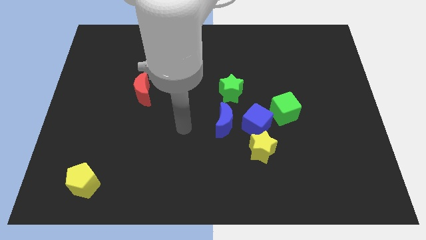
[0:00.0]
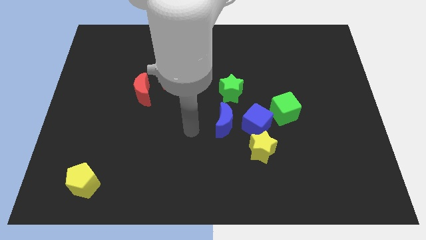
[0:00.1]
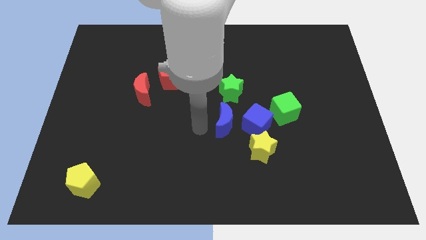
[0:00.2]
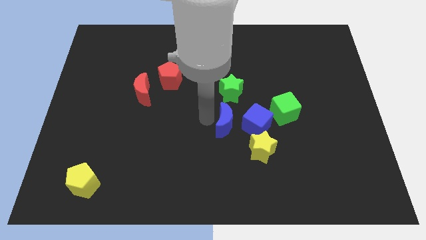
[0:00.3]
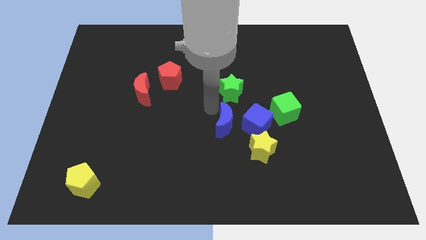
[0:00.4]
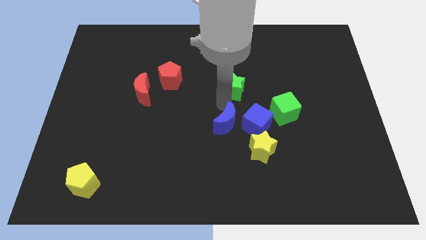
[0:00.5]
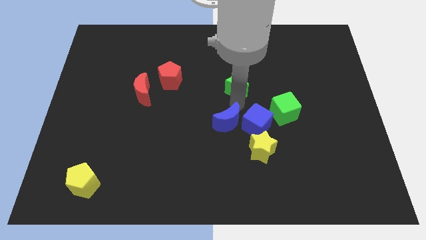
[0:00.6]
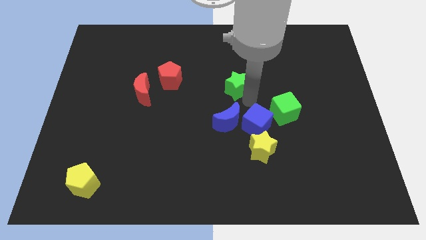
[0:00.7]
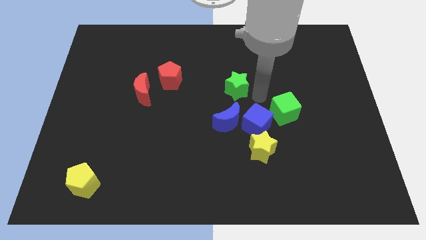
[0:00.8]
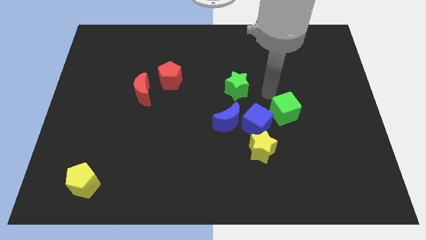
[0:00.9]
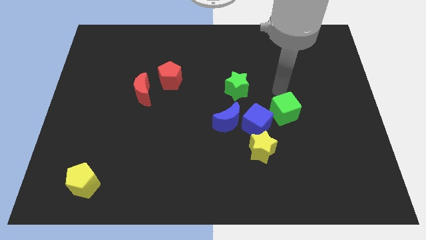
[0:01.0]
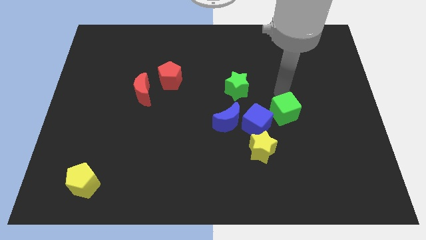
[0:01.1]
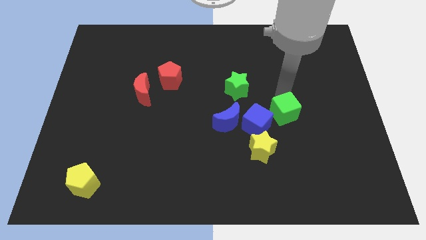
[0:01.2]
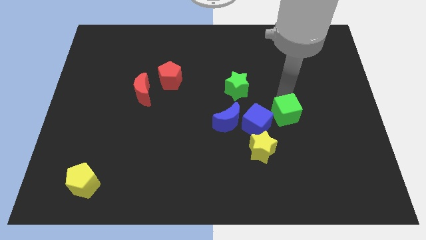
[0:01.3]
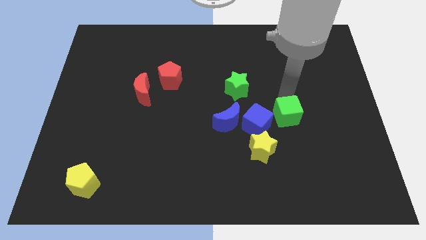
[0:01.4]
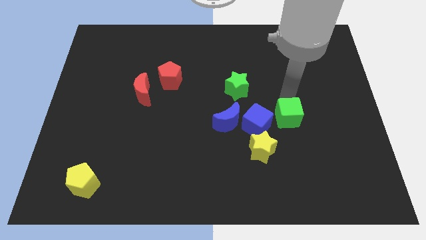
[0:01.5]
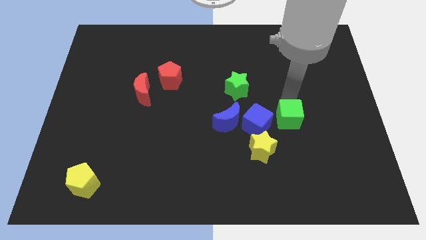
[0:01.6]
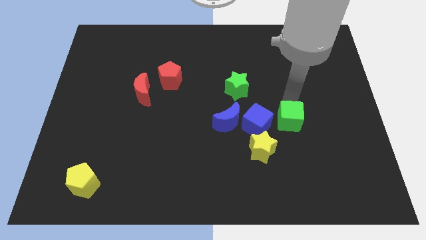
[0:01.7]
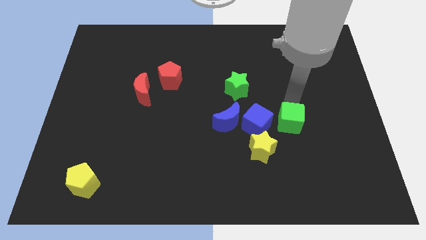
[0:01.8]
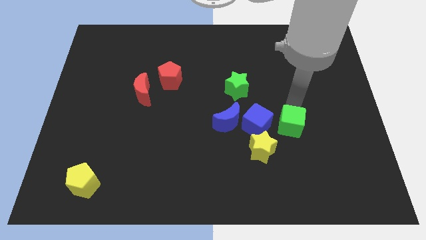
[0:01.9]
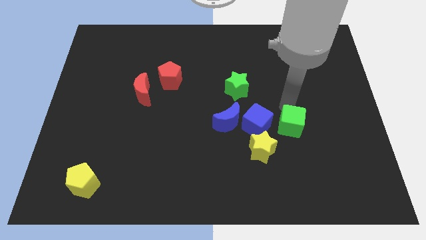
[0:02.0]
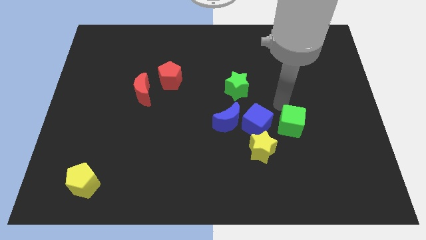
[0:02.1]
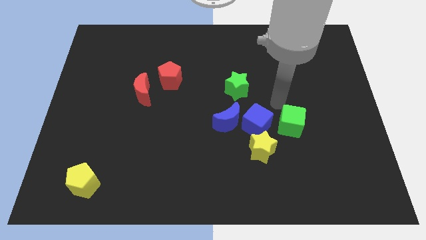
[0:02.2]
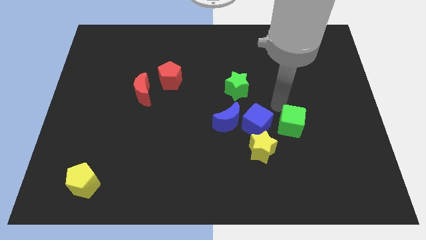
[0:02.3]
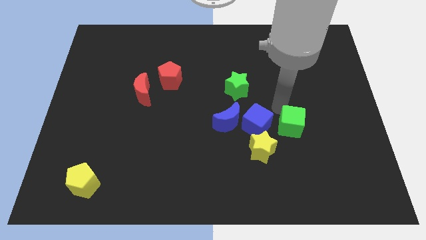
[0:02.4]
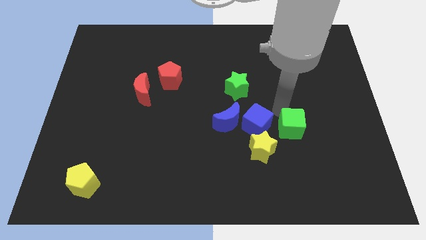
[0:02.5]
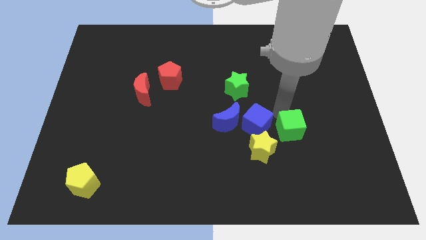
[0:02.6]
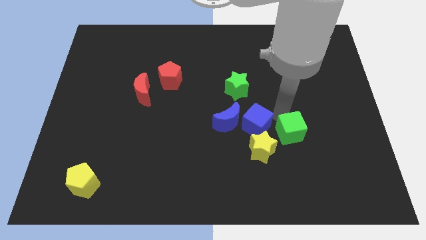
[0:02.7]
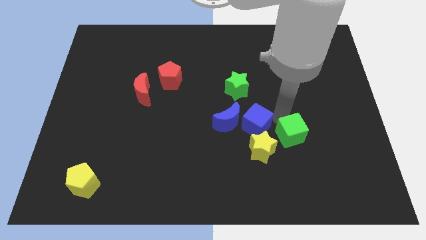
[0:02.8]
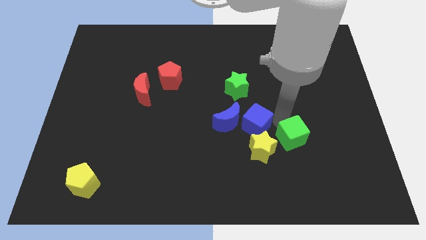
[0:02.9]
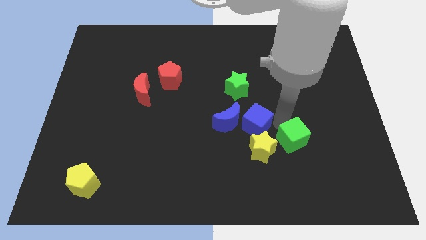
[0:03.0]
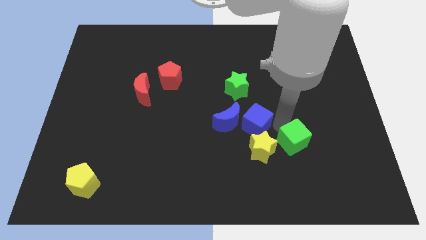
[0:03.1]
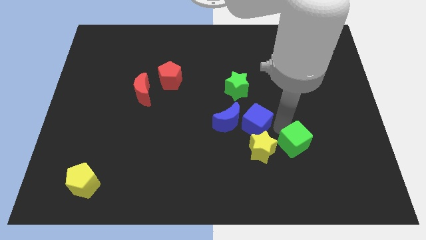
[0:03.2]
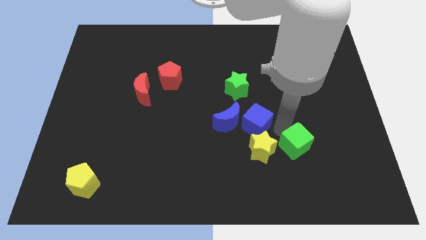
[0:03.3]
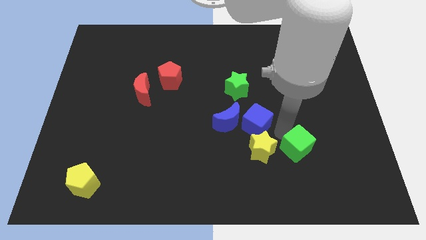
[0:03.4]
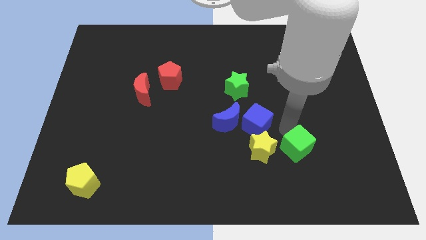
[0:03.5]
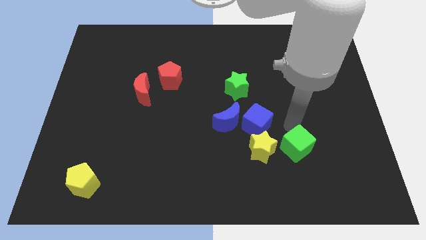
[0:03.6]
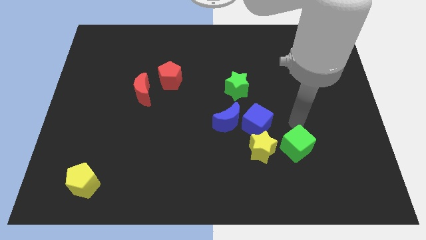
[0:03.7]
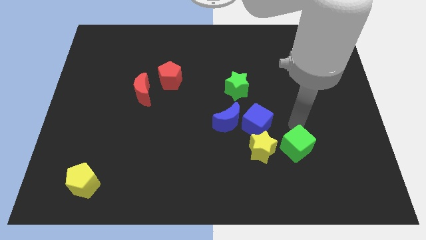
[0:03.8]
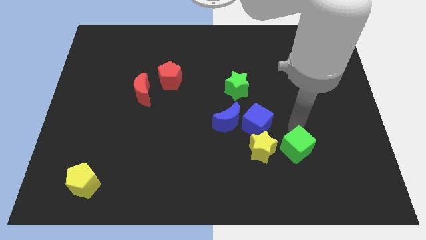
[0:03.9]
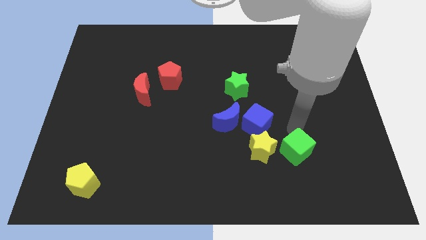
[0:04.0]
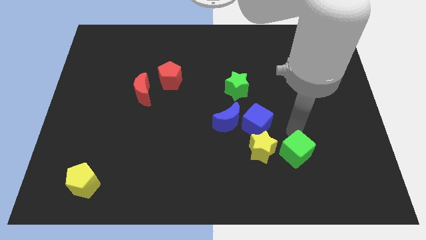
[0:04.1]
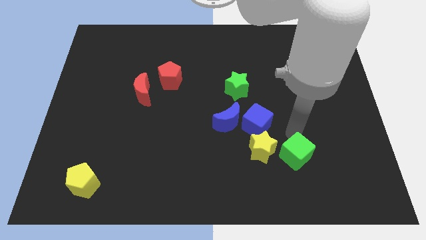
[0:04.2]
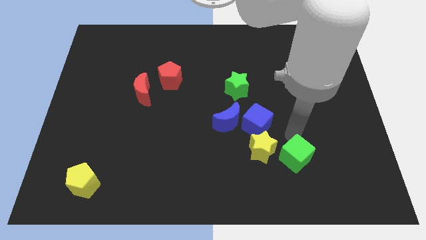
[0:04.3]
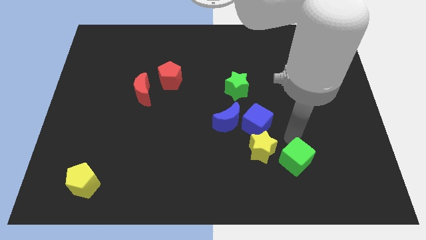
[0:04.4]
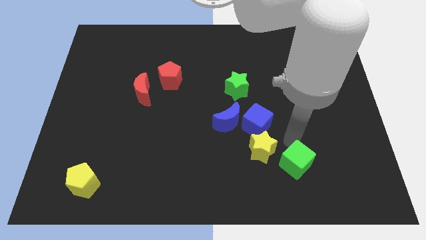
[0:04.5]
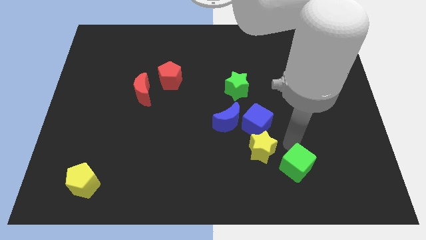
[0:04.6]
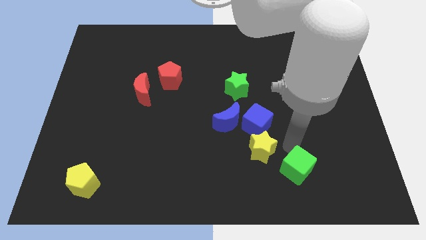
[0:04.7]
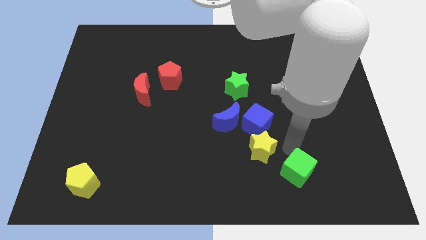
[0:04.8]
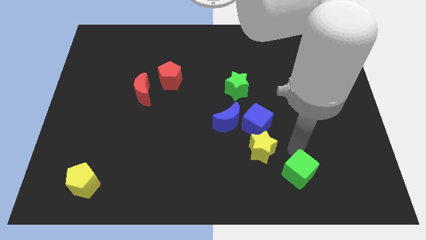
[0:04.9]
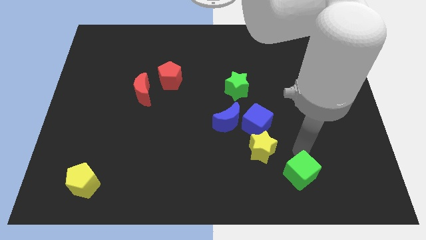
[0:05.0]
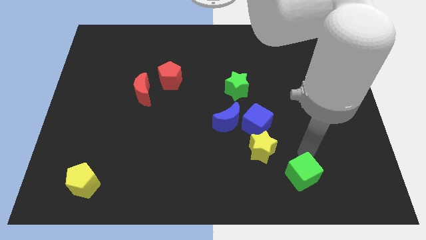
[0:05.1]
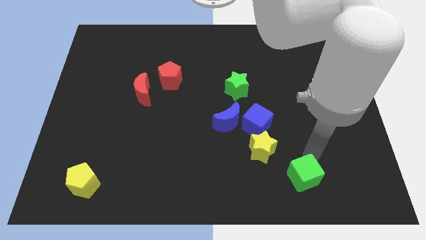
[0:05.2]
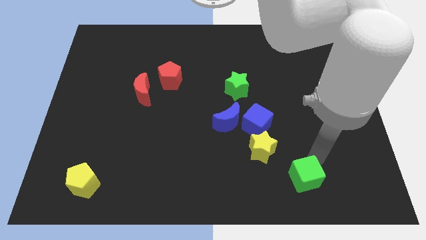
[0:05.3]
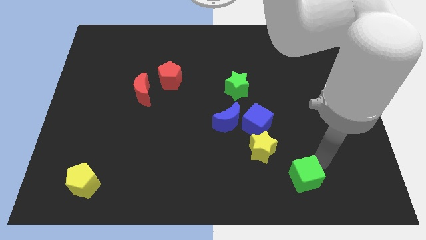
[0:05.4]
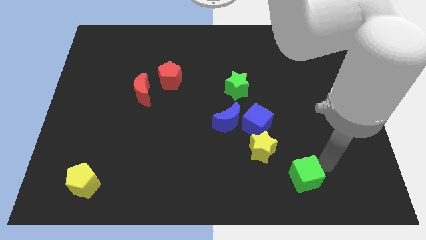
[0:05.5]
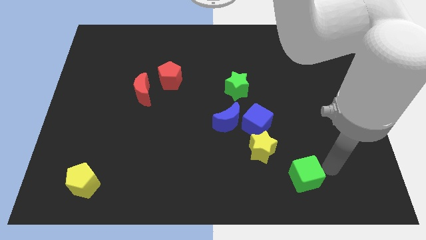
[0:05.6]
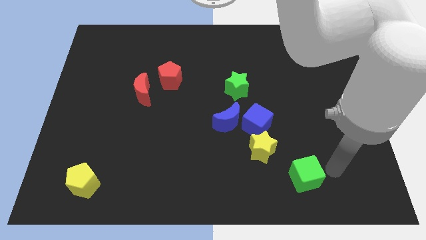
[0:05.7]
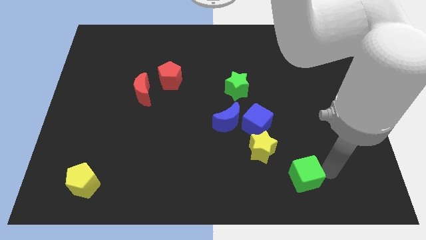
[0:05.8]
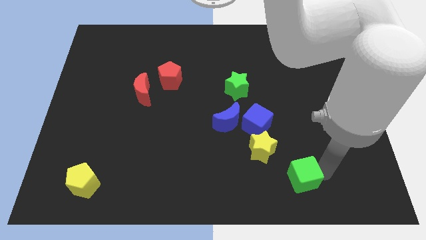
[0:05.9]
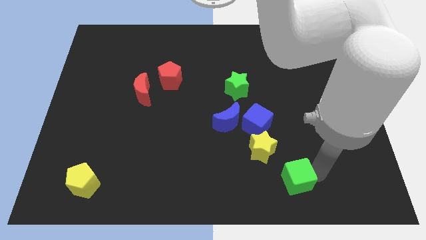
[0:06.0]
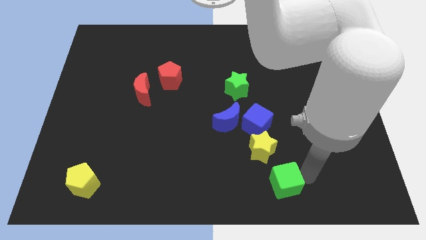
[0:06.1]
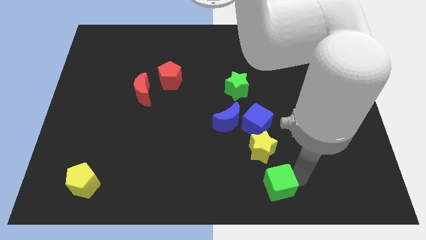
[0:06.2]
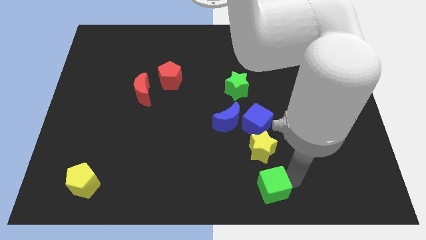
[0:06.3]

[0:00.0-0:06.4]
push the green cube to the bottom

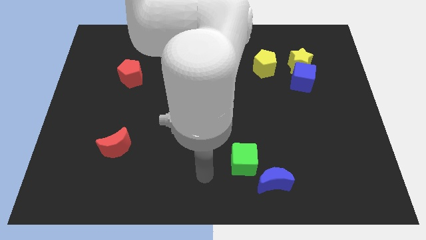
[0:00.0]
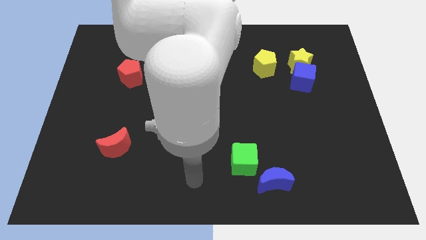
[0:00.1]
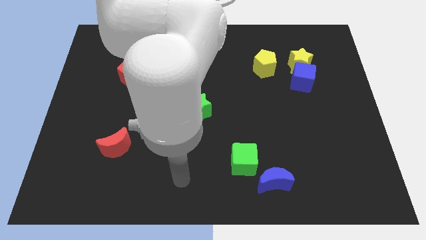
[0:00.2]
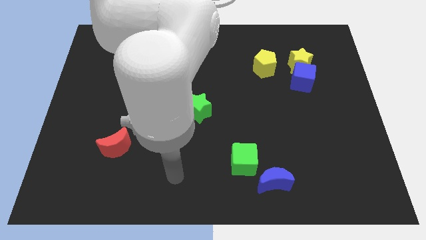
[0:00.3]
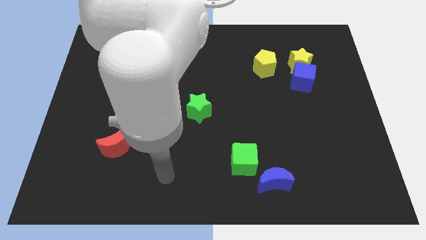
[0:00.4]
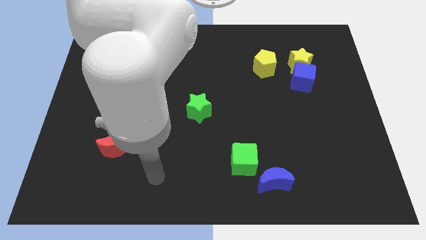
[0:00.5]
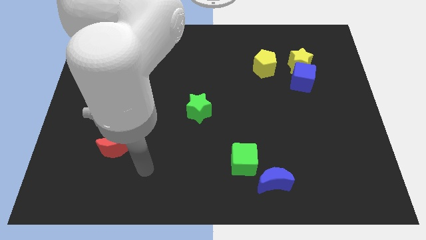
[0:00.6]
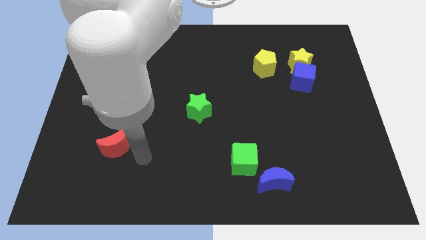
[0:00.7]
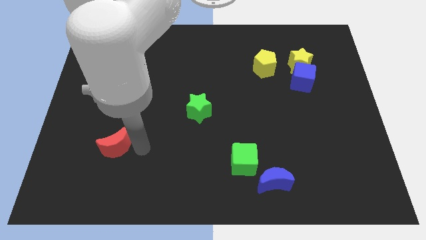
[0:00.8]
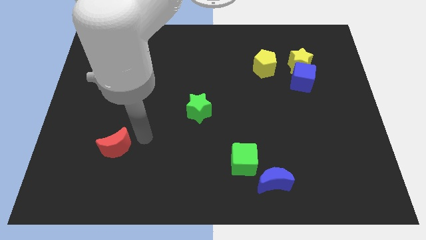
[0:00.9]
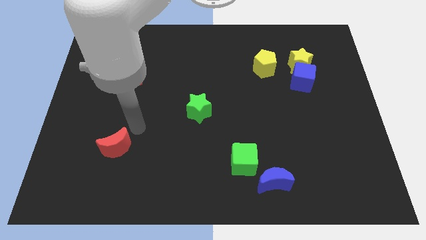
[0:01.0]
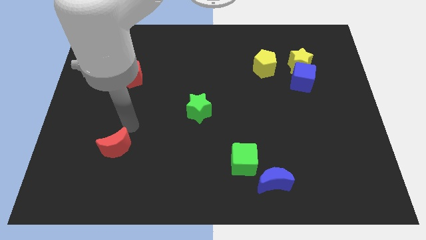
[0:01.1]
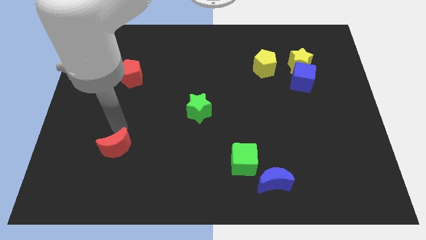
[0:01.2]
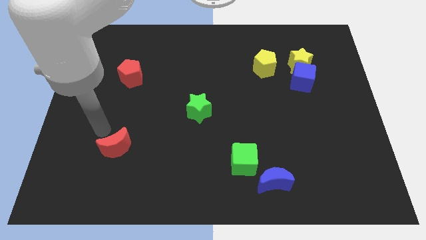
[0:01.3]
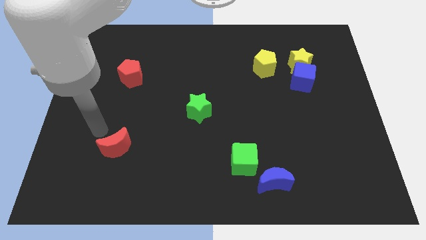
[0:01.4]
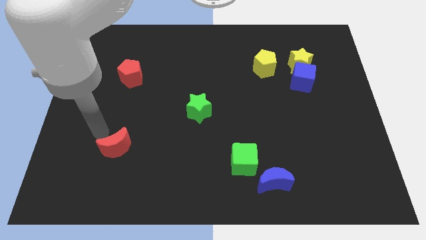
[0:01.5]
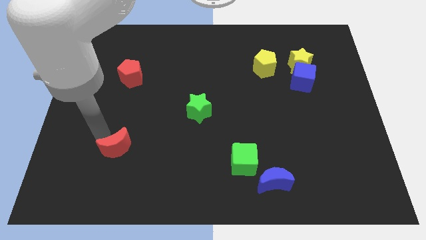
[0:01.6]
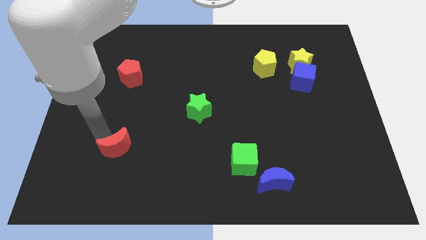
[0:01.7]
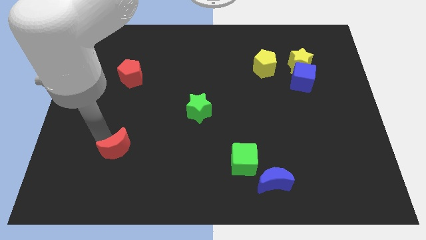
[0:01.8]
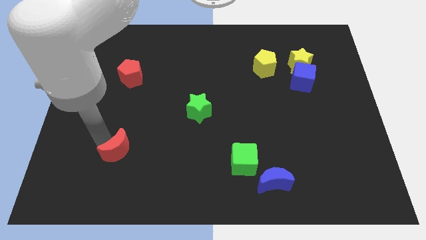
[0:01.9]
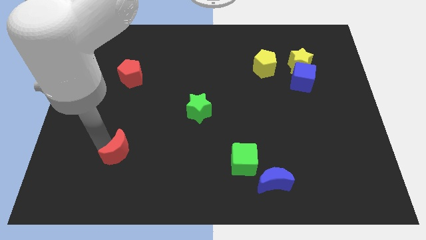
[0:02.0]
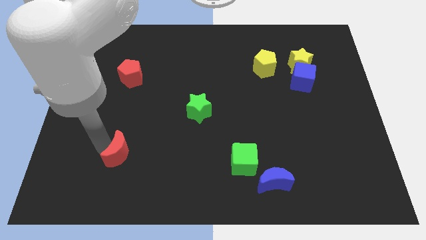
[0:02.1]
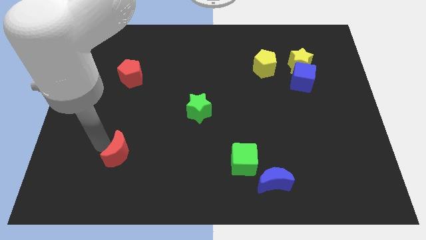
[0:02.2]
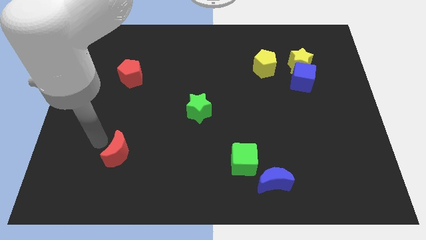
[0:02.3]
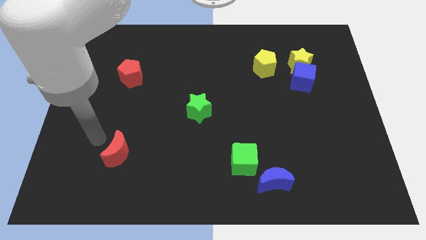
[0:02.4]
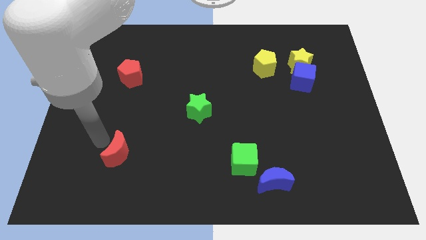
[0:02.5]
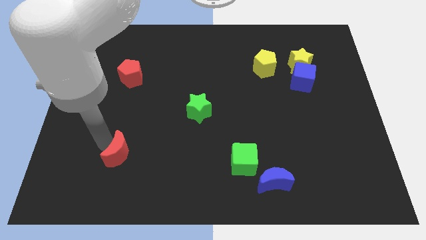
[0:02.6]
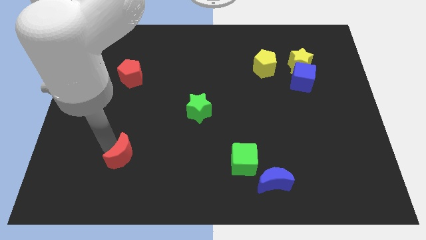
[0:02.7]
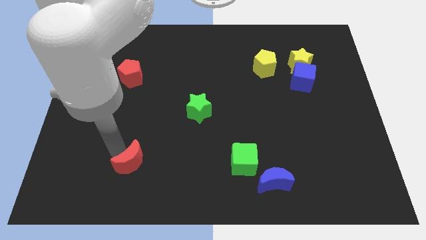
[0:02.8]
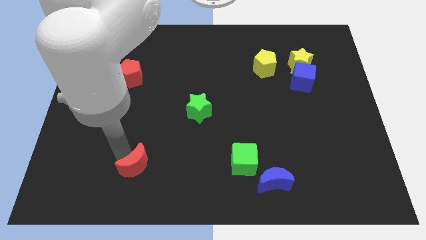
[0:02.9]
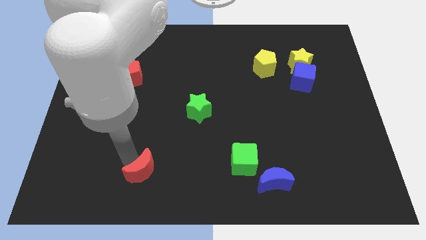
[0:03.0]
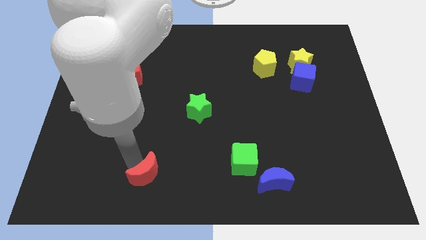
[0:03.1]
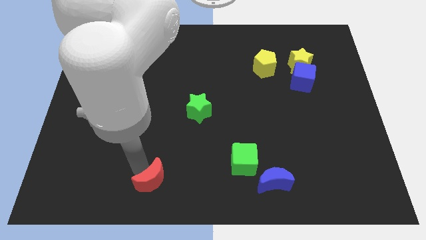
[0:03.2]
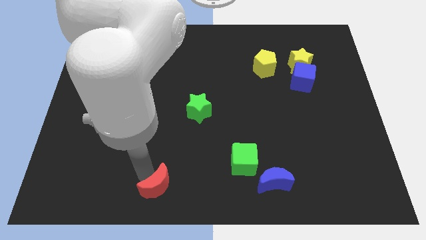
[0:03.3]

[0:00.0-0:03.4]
put the red moon to the bottom
